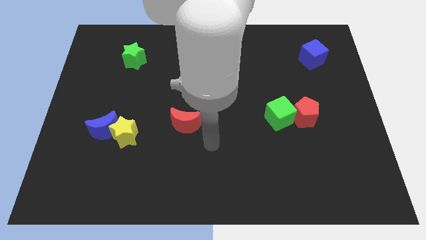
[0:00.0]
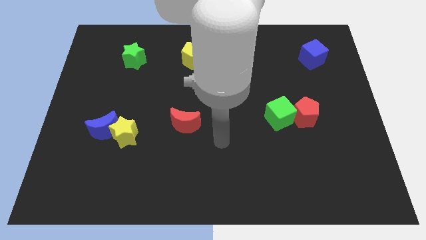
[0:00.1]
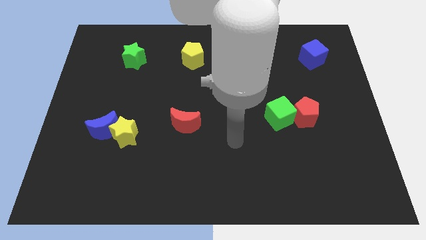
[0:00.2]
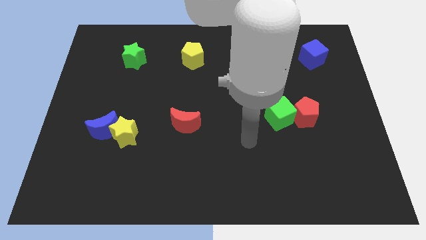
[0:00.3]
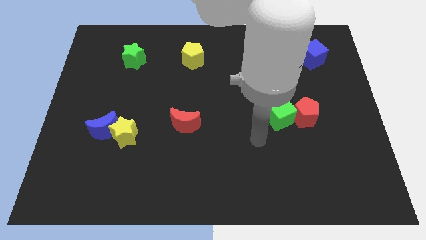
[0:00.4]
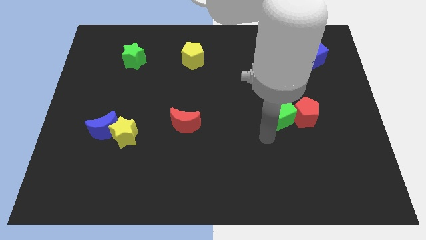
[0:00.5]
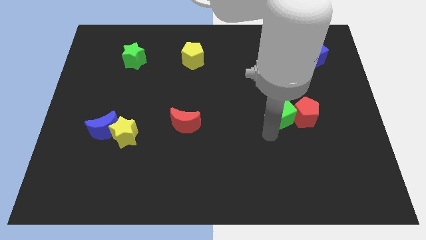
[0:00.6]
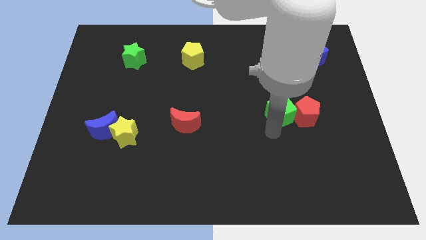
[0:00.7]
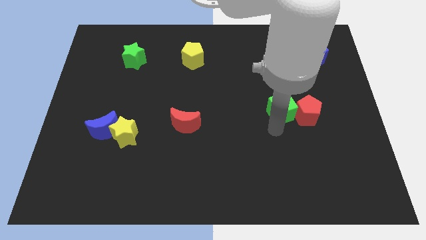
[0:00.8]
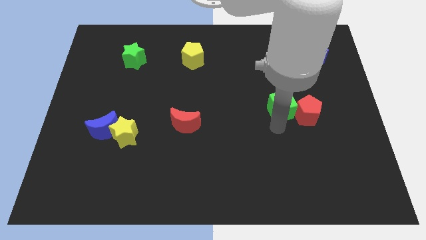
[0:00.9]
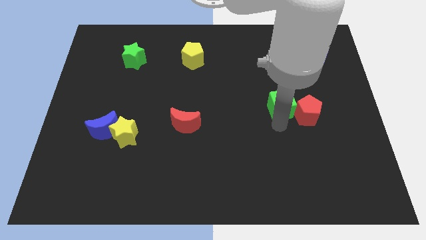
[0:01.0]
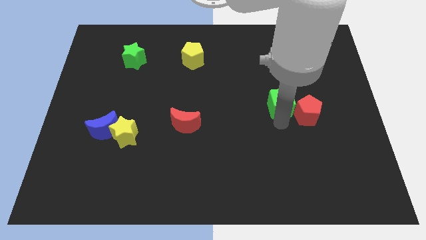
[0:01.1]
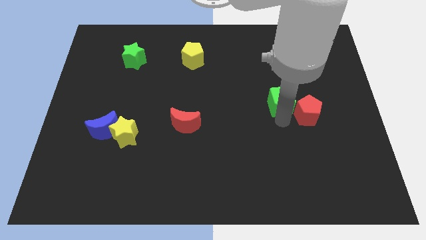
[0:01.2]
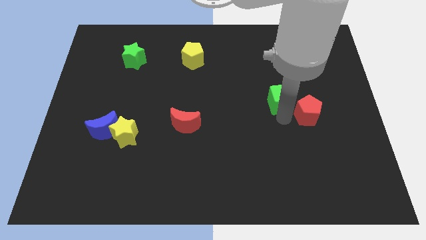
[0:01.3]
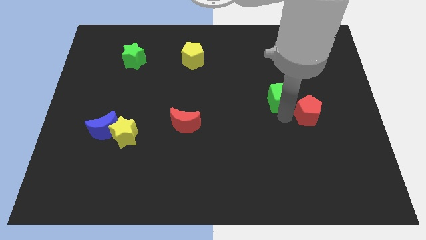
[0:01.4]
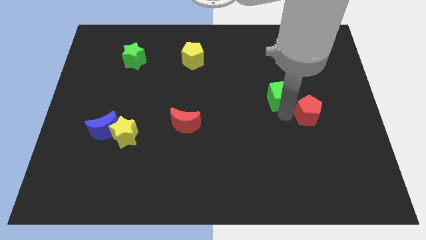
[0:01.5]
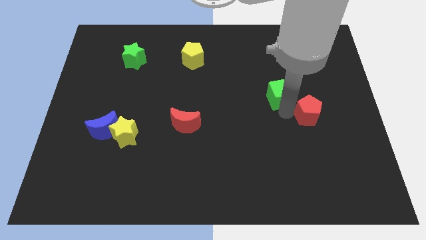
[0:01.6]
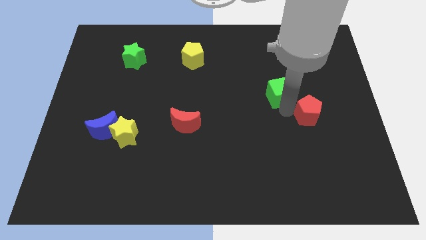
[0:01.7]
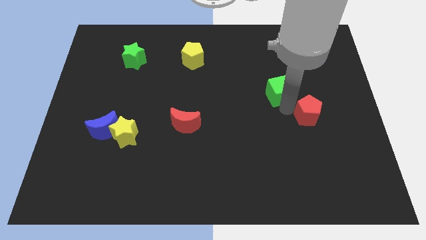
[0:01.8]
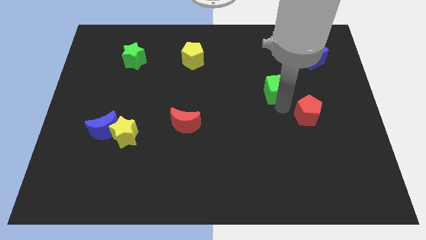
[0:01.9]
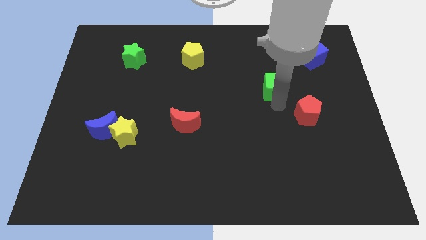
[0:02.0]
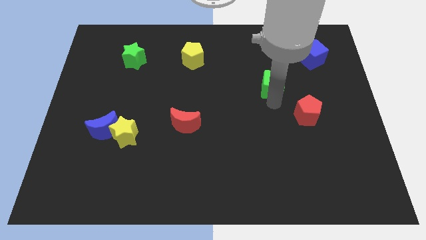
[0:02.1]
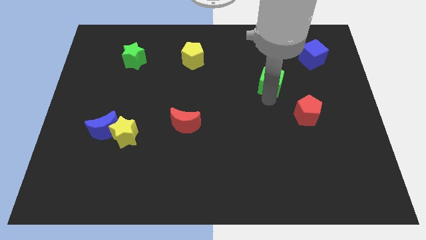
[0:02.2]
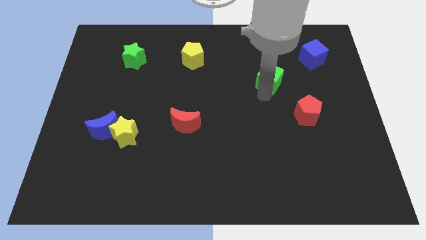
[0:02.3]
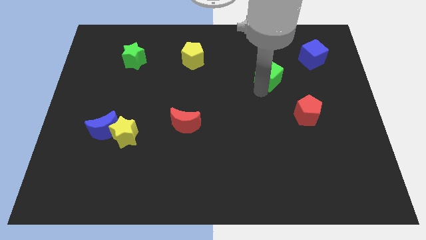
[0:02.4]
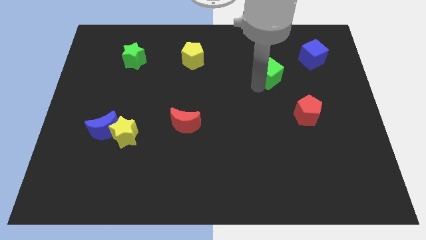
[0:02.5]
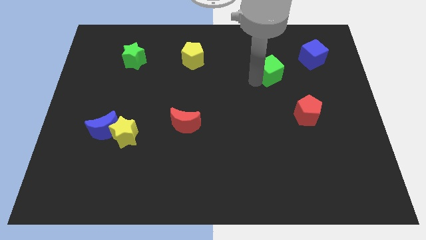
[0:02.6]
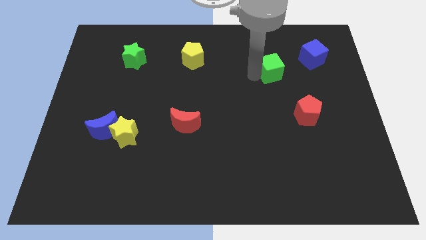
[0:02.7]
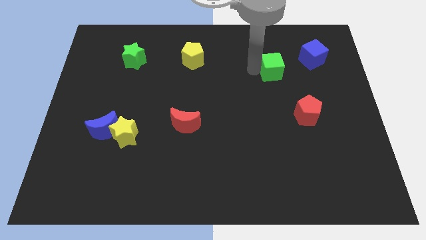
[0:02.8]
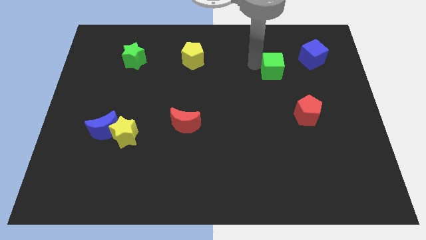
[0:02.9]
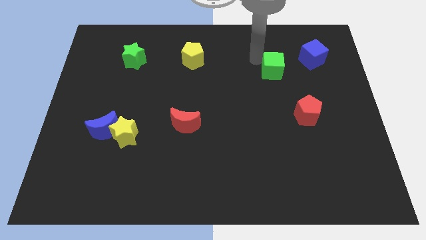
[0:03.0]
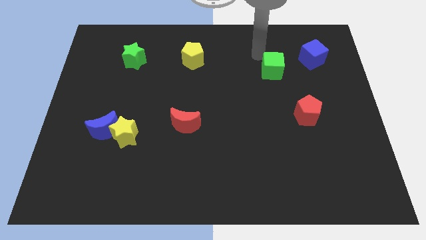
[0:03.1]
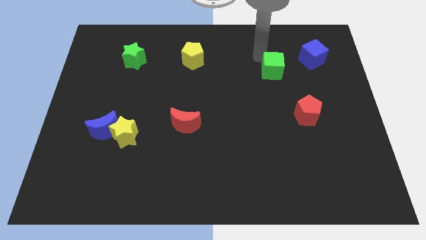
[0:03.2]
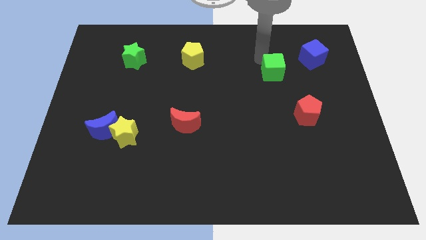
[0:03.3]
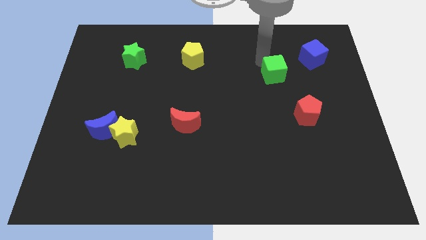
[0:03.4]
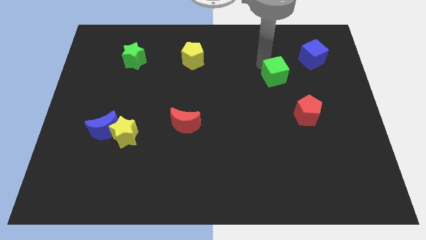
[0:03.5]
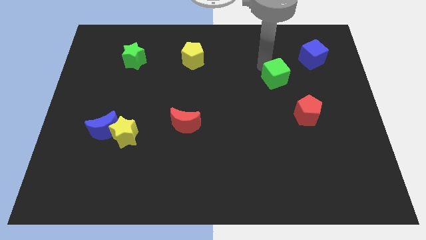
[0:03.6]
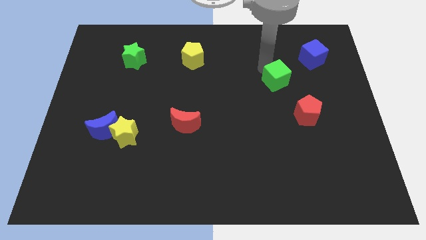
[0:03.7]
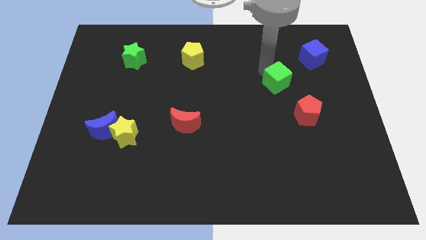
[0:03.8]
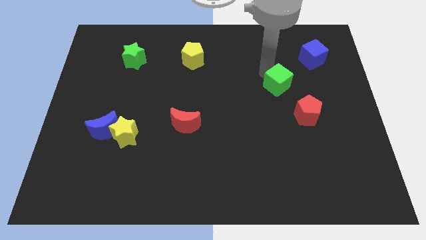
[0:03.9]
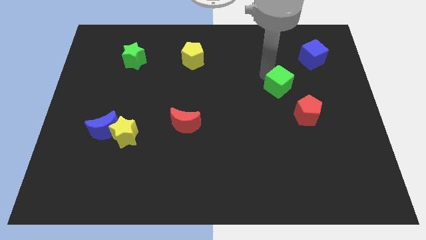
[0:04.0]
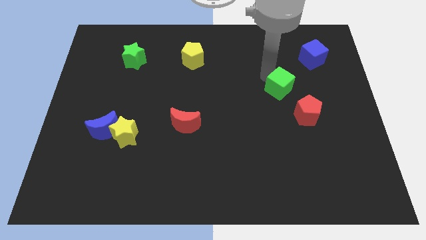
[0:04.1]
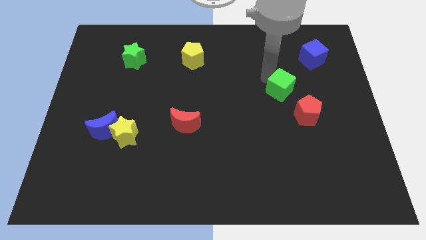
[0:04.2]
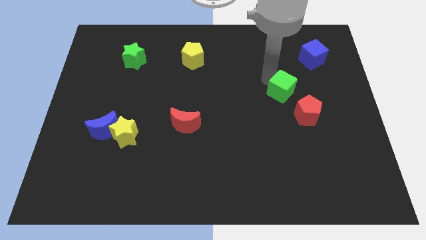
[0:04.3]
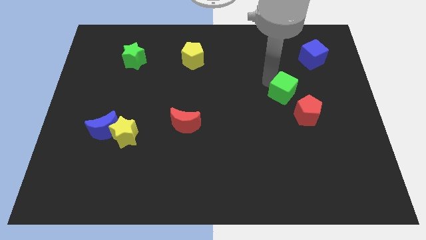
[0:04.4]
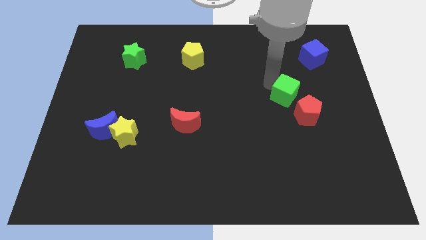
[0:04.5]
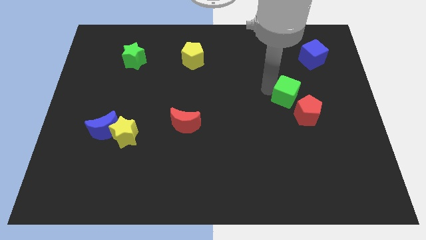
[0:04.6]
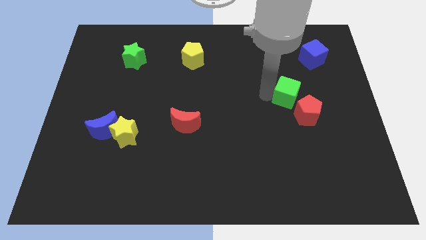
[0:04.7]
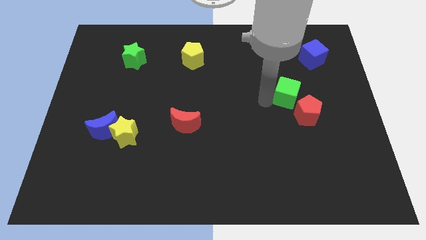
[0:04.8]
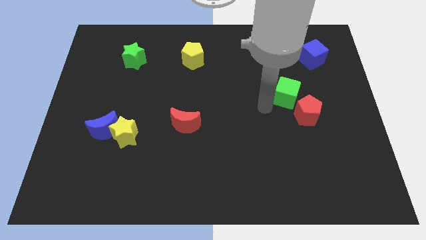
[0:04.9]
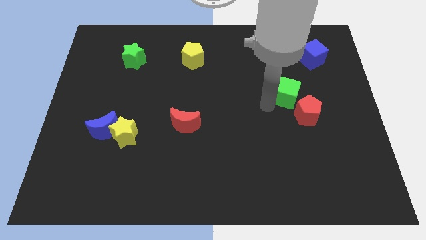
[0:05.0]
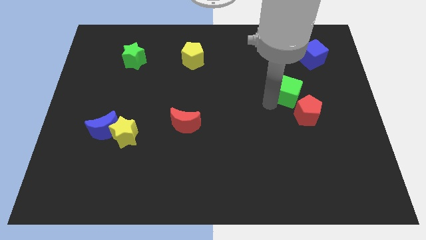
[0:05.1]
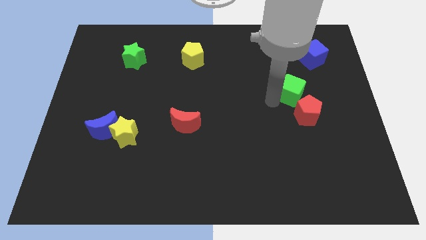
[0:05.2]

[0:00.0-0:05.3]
slightly slide the green cube upwards and then to the right

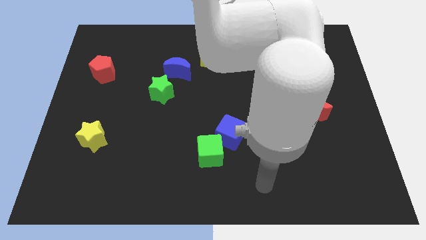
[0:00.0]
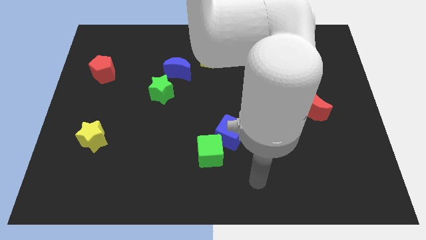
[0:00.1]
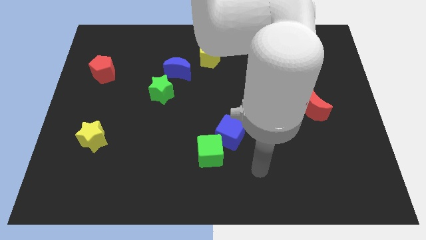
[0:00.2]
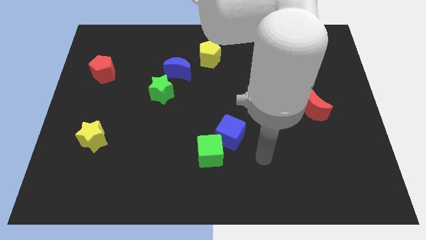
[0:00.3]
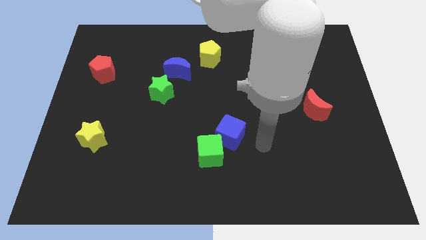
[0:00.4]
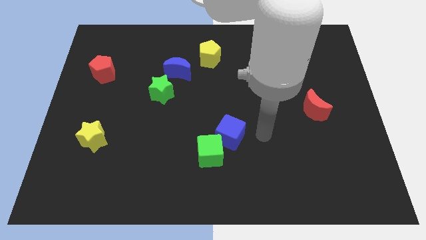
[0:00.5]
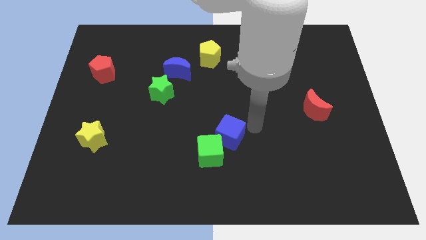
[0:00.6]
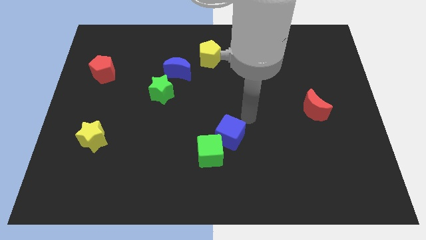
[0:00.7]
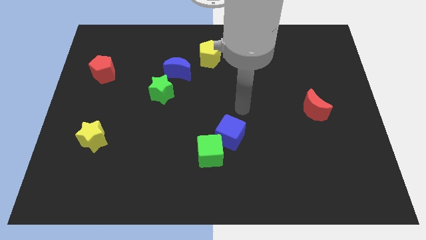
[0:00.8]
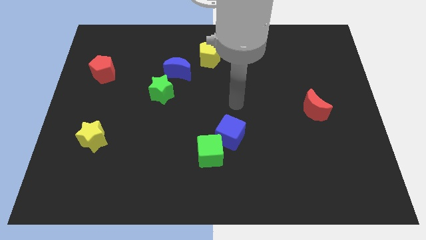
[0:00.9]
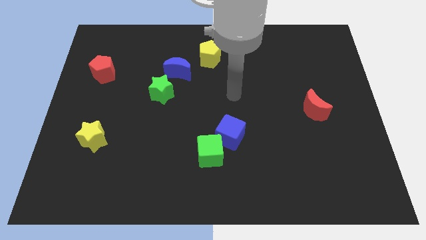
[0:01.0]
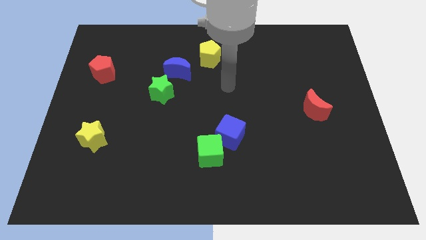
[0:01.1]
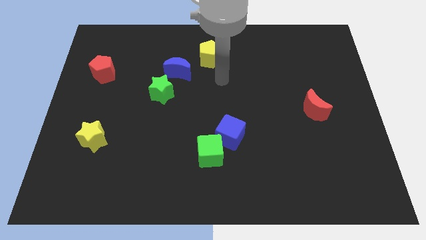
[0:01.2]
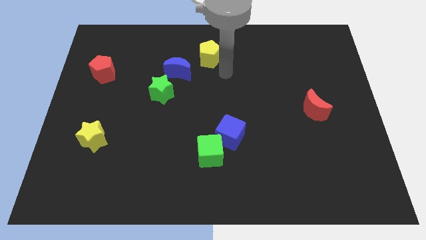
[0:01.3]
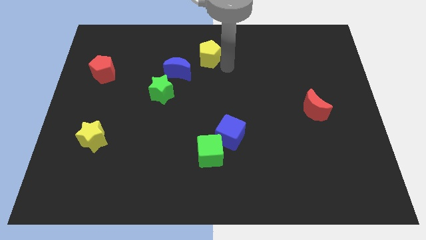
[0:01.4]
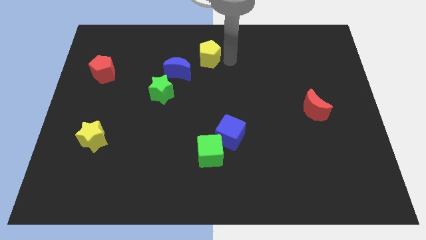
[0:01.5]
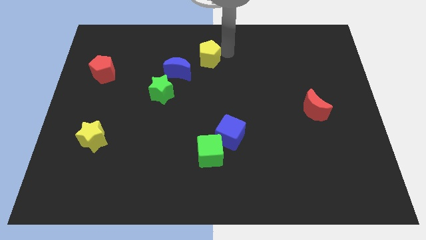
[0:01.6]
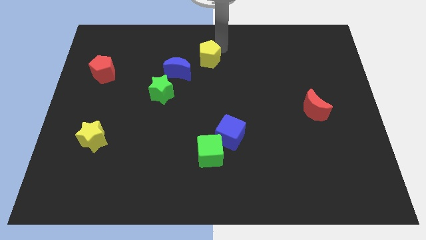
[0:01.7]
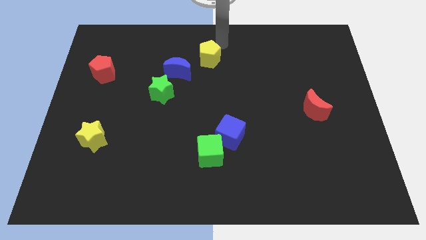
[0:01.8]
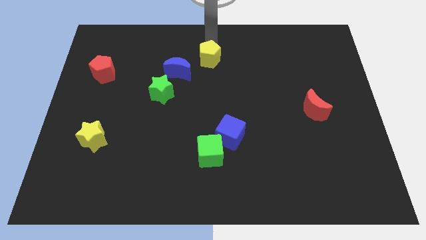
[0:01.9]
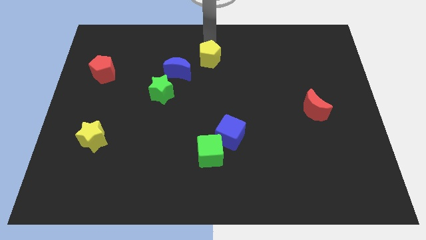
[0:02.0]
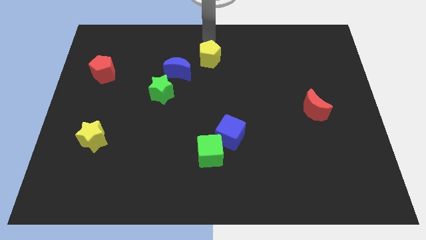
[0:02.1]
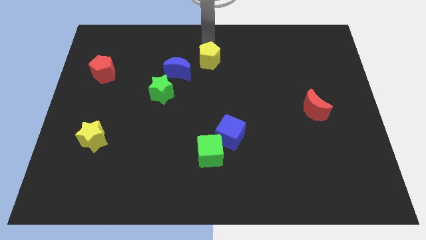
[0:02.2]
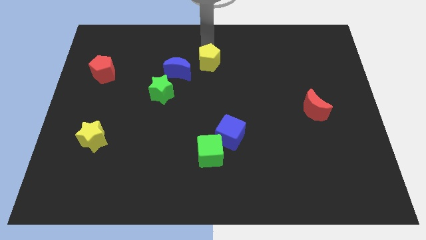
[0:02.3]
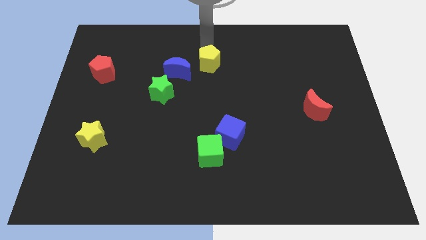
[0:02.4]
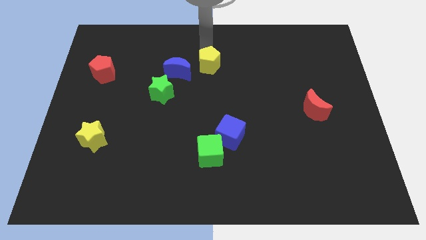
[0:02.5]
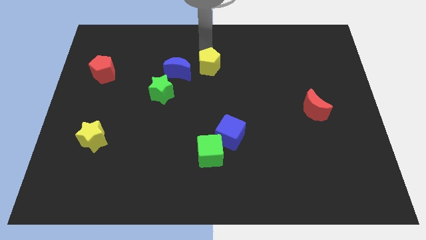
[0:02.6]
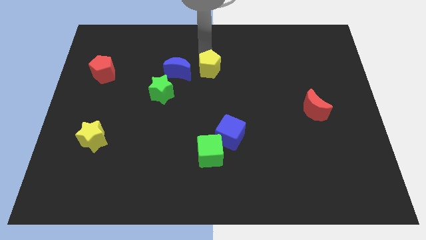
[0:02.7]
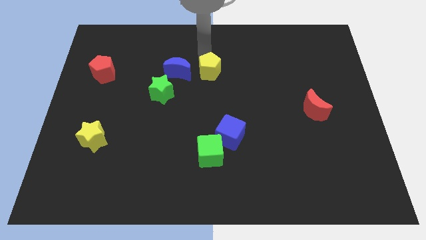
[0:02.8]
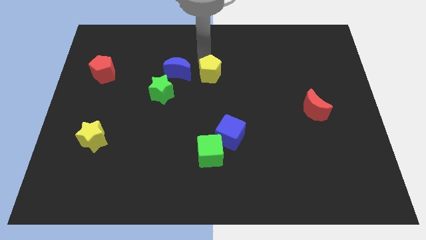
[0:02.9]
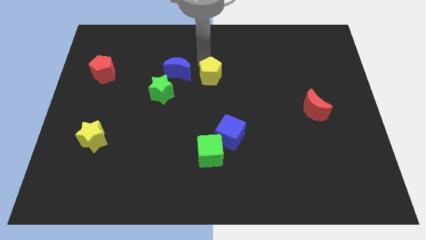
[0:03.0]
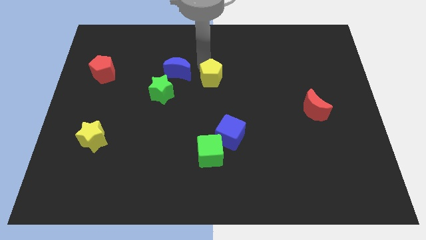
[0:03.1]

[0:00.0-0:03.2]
push the yellow pentagon down somewhat
